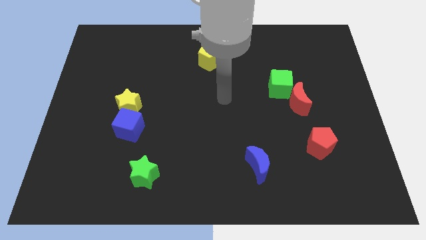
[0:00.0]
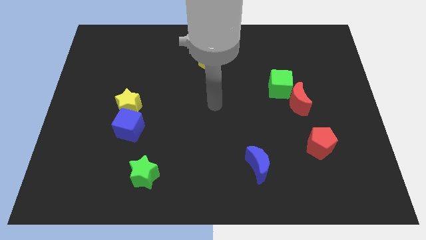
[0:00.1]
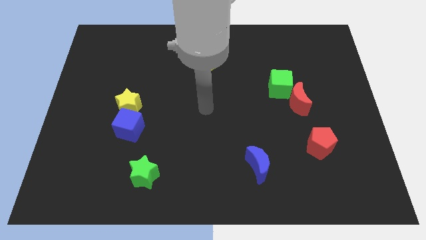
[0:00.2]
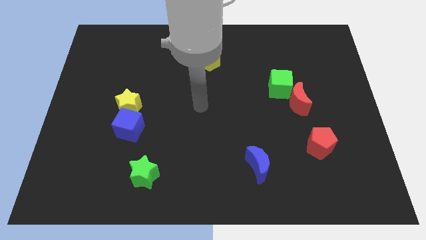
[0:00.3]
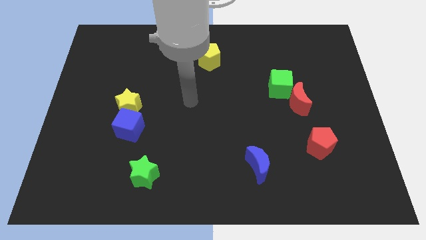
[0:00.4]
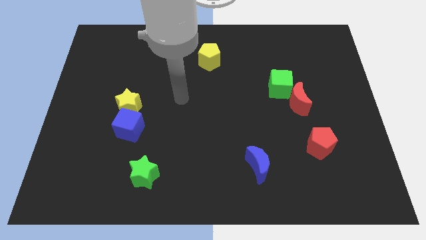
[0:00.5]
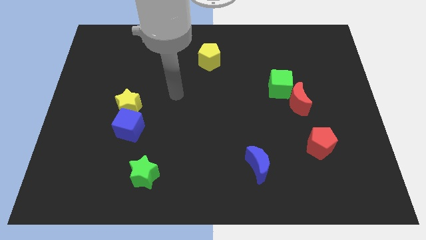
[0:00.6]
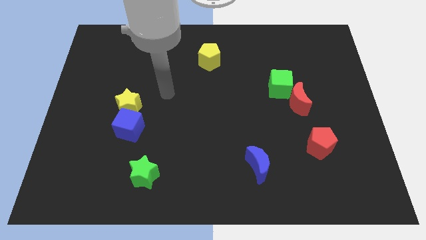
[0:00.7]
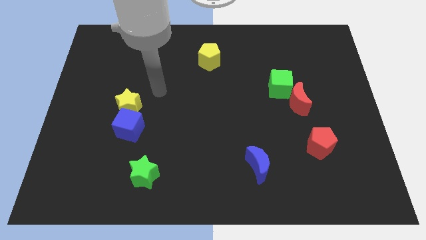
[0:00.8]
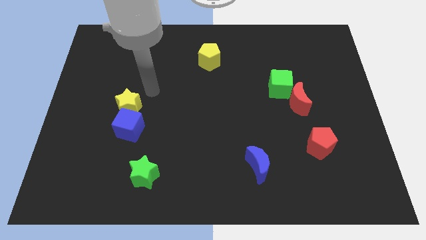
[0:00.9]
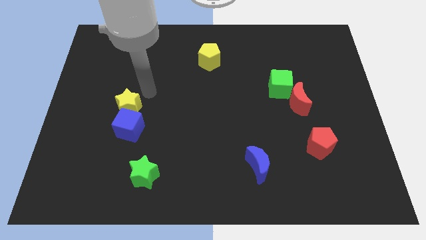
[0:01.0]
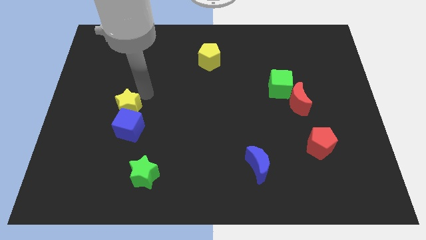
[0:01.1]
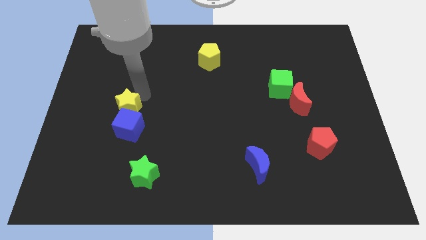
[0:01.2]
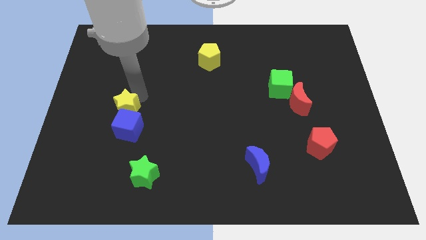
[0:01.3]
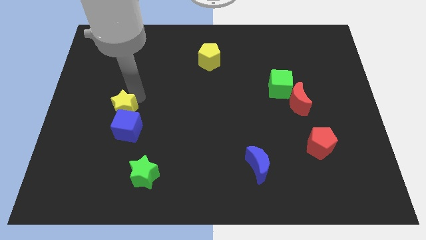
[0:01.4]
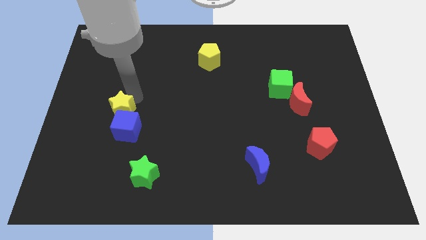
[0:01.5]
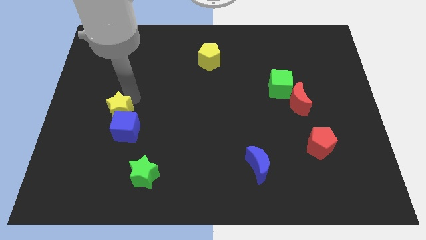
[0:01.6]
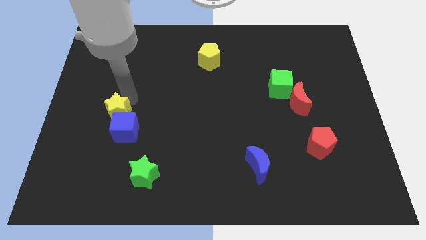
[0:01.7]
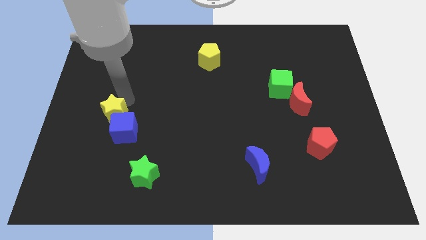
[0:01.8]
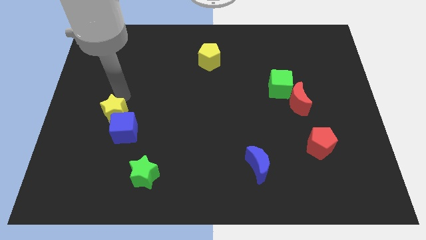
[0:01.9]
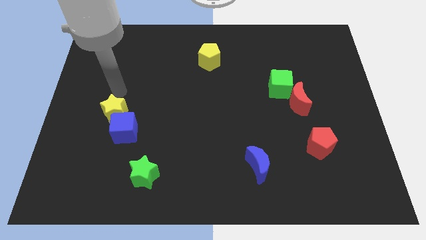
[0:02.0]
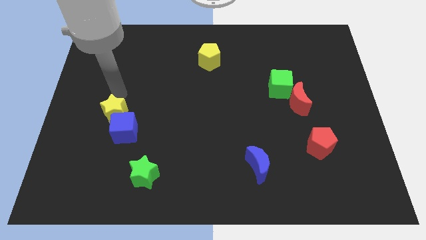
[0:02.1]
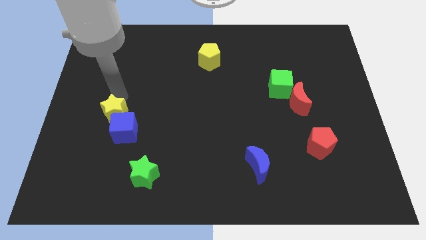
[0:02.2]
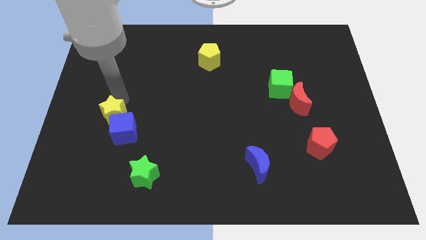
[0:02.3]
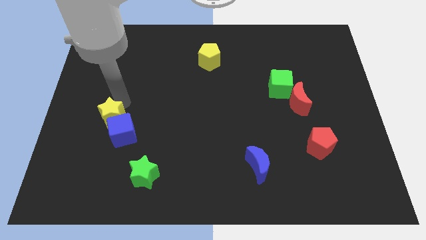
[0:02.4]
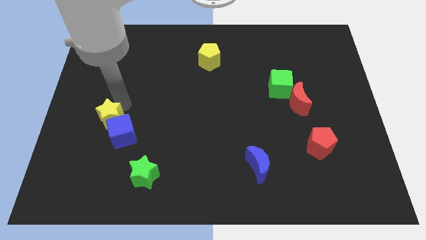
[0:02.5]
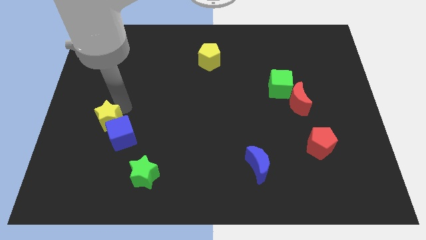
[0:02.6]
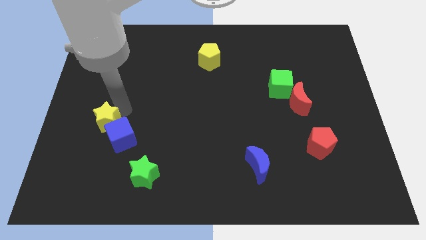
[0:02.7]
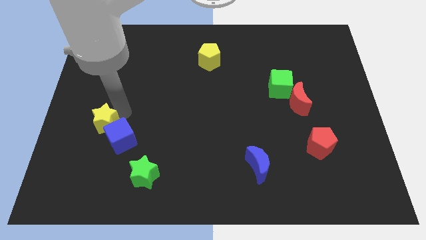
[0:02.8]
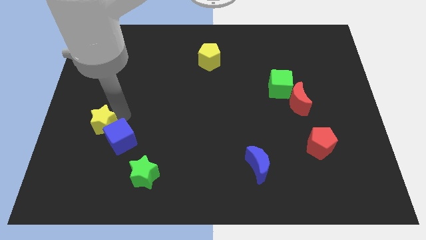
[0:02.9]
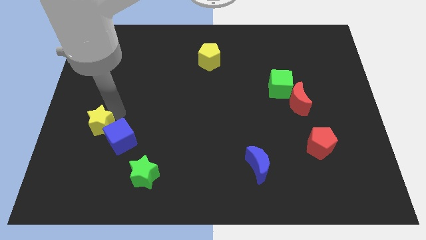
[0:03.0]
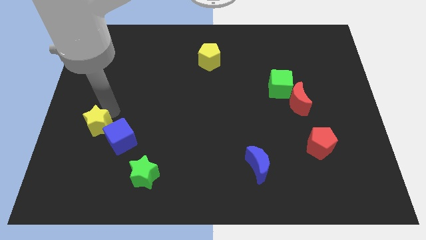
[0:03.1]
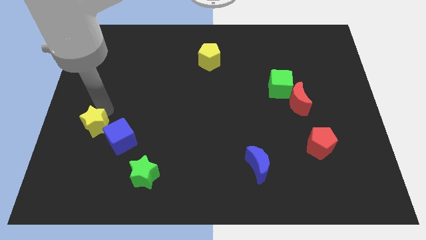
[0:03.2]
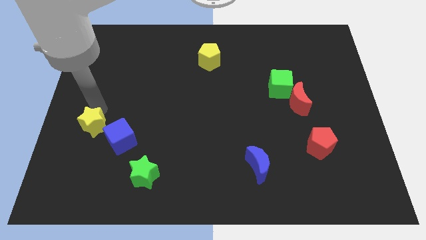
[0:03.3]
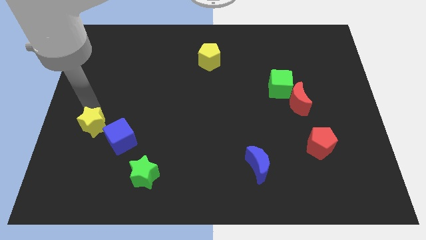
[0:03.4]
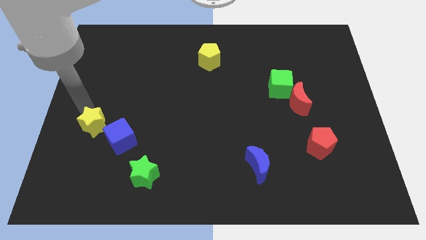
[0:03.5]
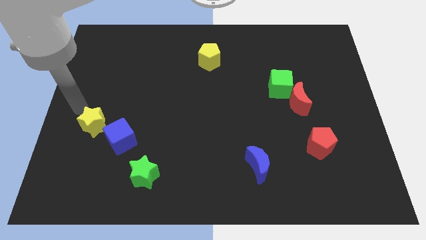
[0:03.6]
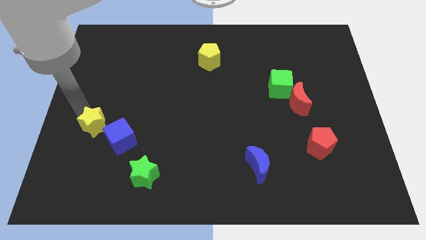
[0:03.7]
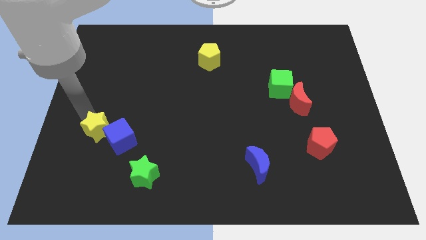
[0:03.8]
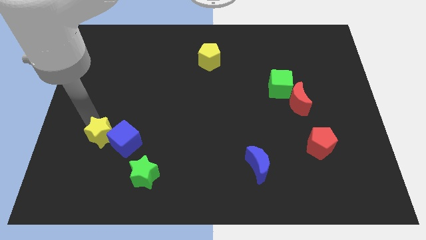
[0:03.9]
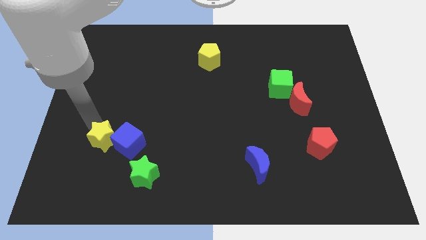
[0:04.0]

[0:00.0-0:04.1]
slightly push the yellow star down

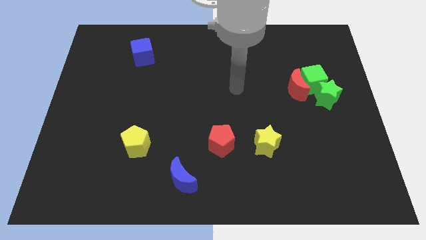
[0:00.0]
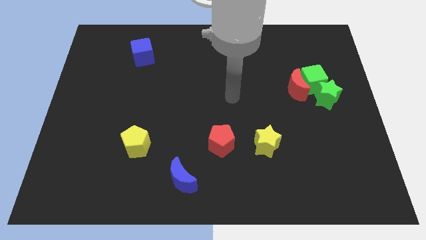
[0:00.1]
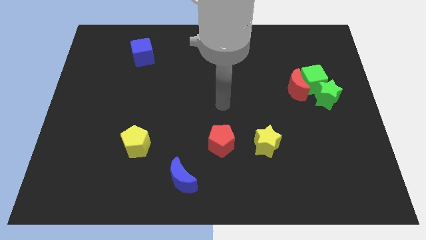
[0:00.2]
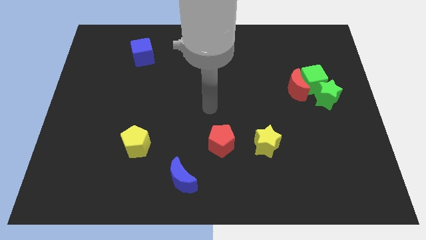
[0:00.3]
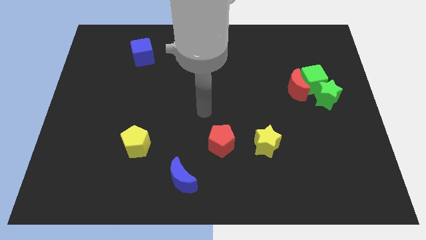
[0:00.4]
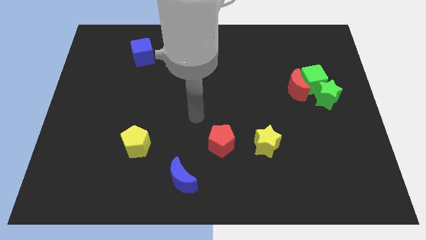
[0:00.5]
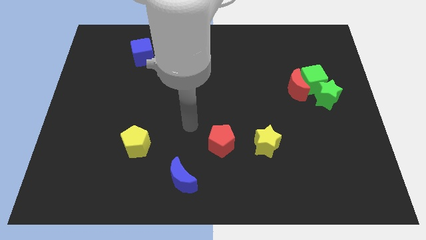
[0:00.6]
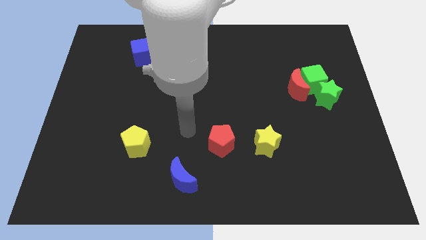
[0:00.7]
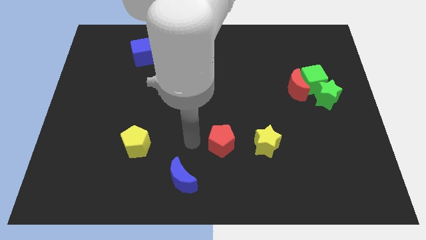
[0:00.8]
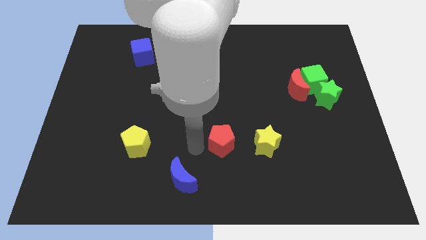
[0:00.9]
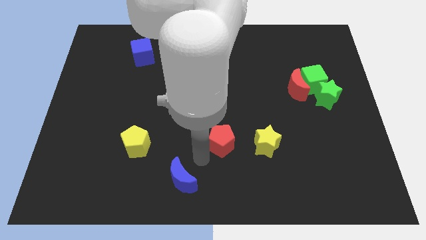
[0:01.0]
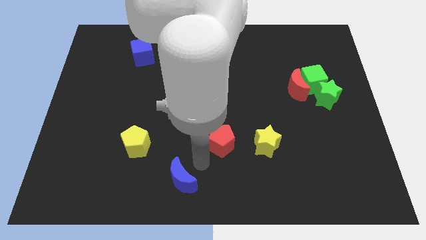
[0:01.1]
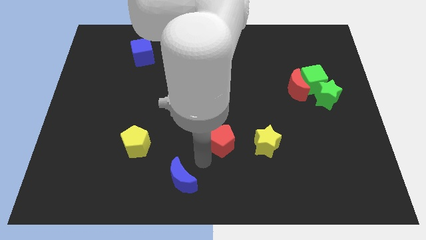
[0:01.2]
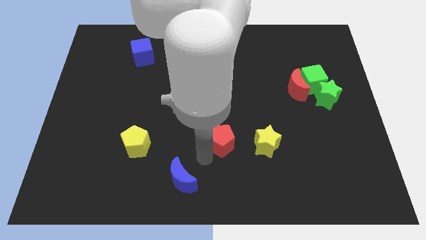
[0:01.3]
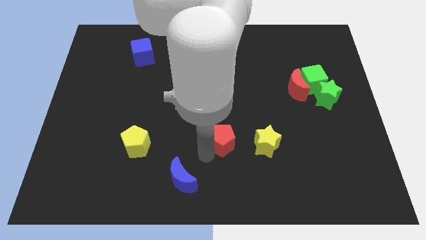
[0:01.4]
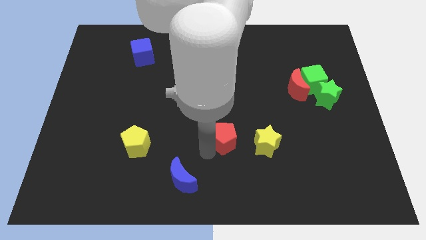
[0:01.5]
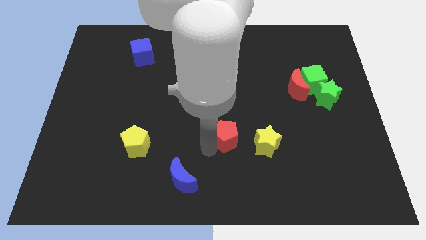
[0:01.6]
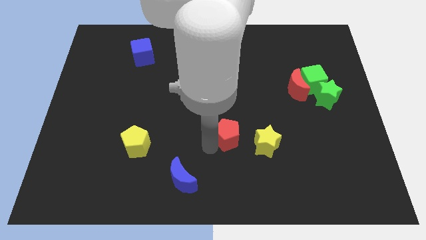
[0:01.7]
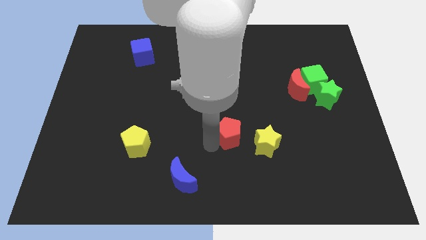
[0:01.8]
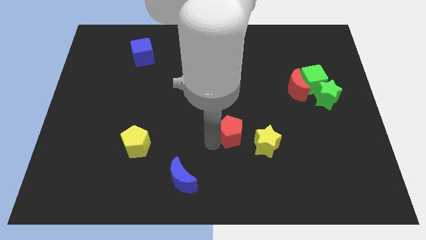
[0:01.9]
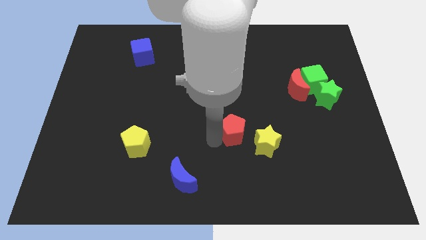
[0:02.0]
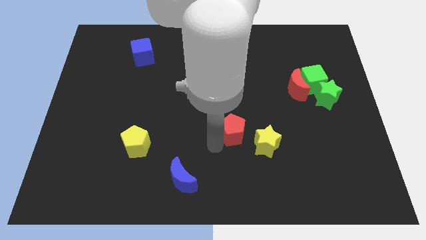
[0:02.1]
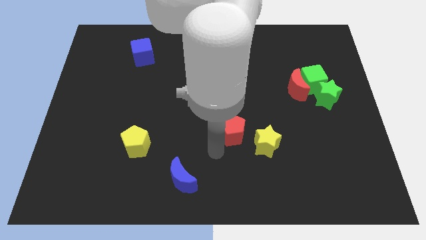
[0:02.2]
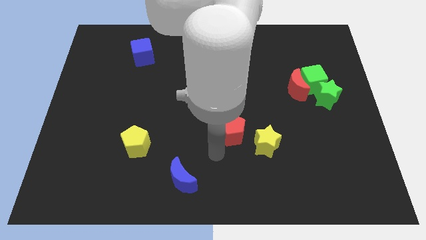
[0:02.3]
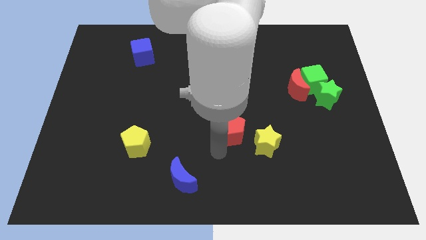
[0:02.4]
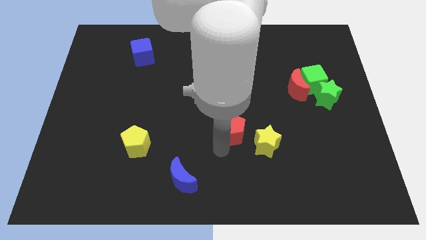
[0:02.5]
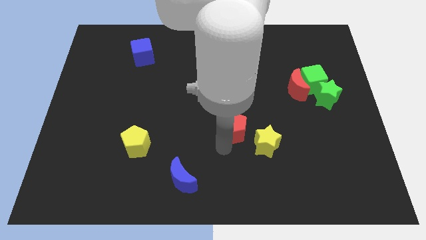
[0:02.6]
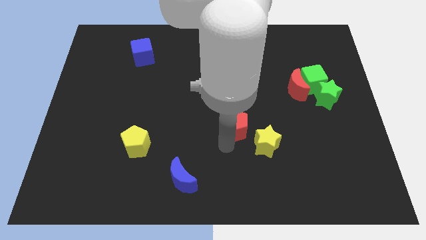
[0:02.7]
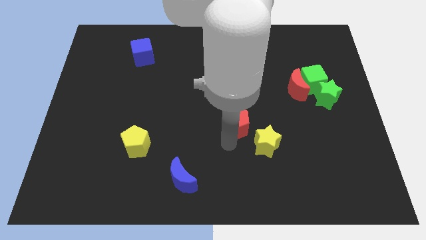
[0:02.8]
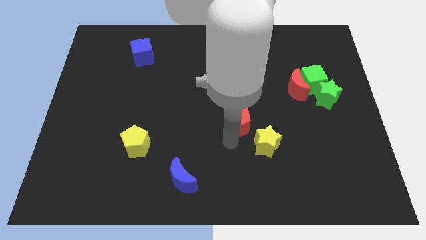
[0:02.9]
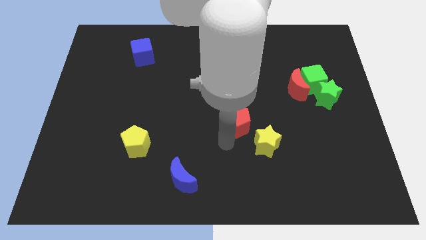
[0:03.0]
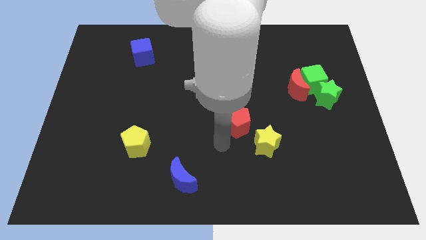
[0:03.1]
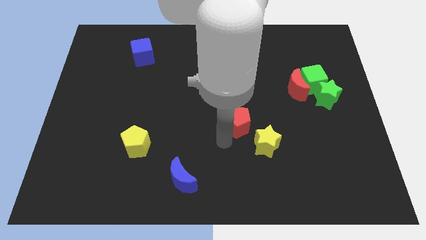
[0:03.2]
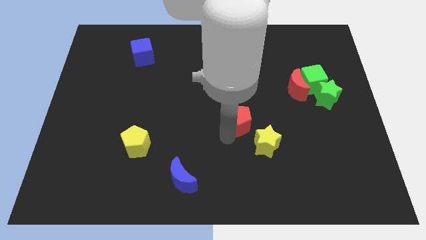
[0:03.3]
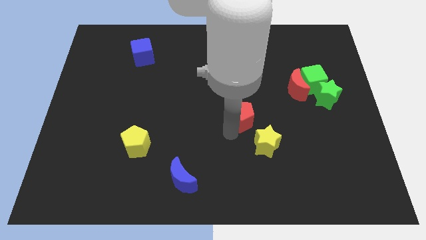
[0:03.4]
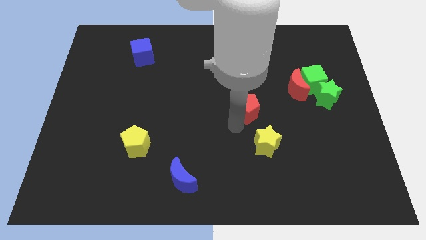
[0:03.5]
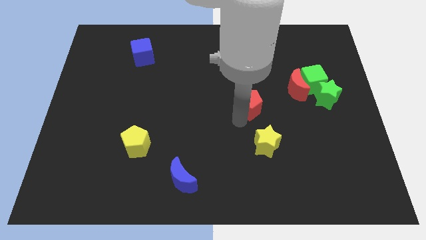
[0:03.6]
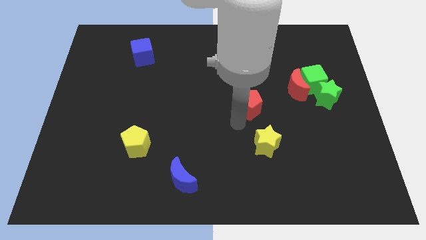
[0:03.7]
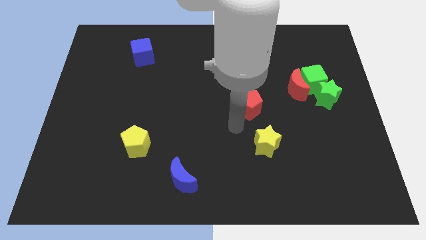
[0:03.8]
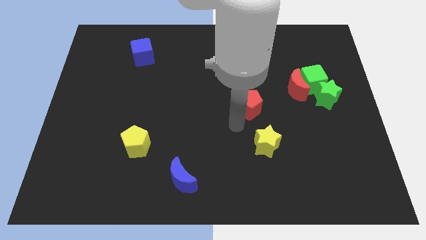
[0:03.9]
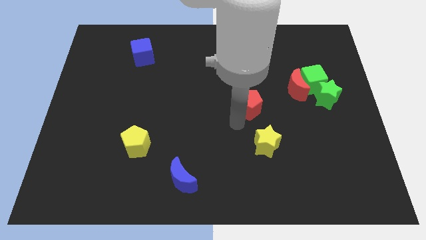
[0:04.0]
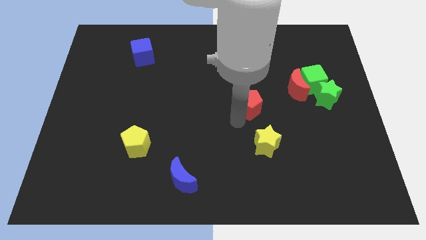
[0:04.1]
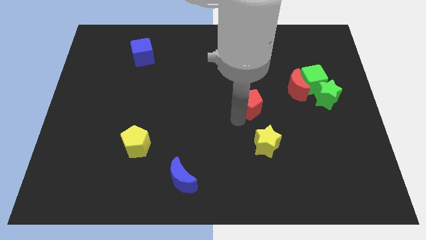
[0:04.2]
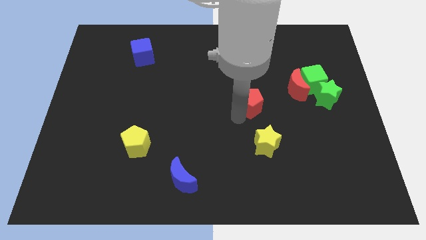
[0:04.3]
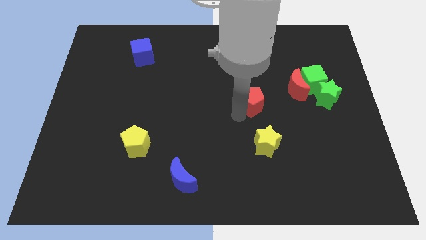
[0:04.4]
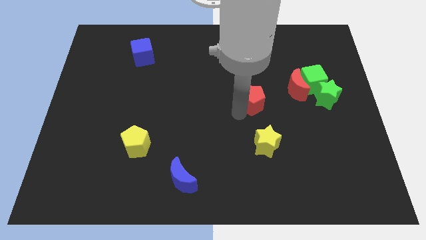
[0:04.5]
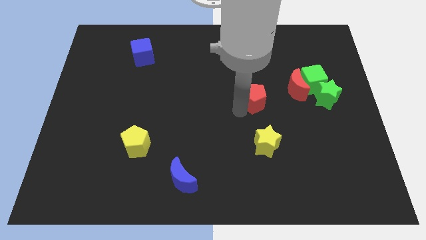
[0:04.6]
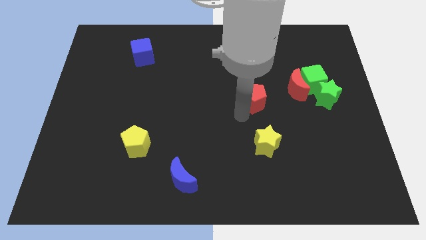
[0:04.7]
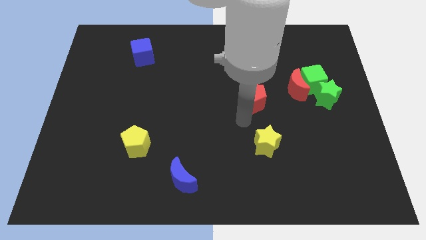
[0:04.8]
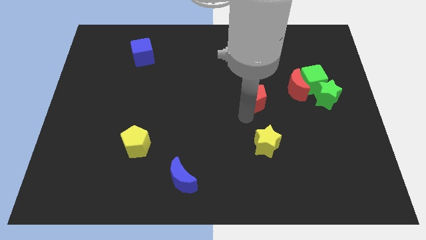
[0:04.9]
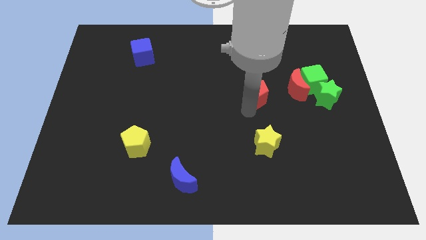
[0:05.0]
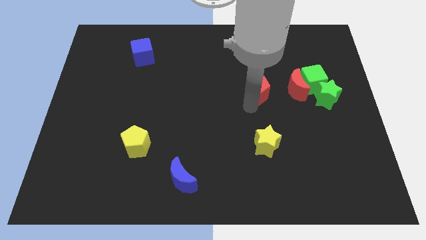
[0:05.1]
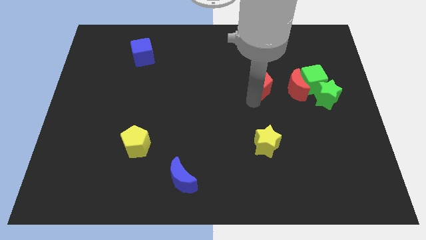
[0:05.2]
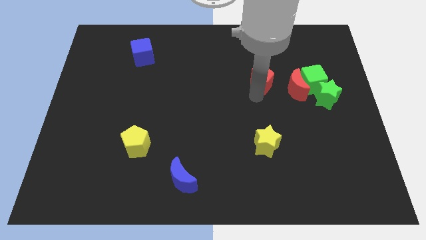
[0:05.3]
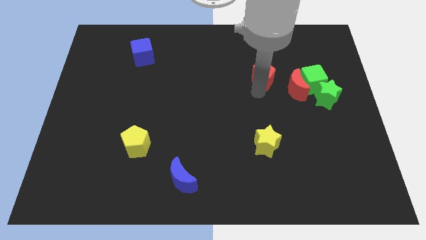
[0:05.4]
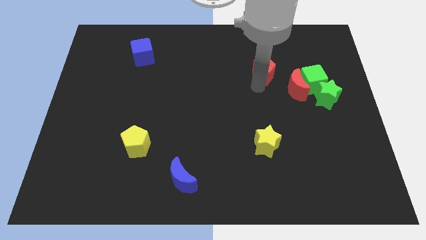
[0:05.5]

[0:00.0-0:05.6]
push the red pentagon upwards and then to the right
